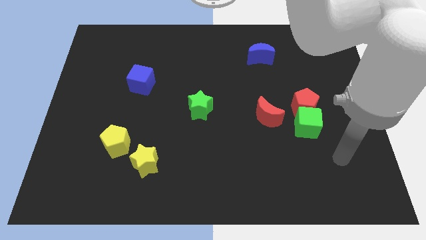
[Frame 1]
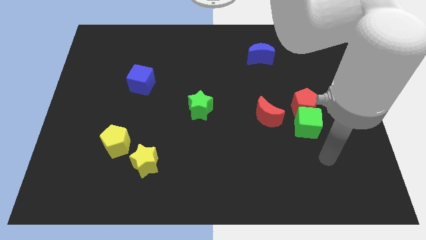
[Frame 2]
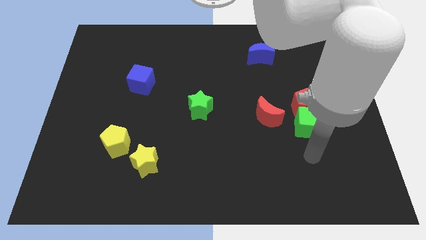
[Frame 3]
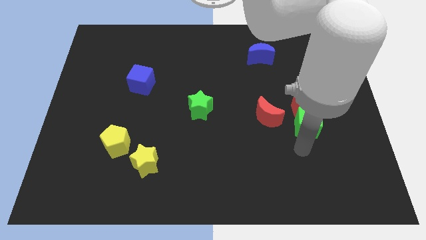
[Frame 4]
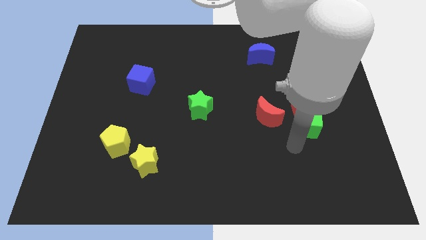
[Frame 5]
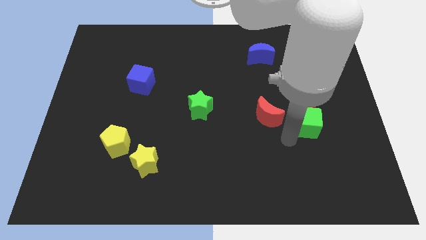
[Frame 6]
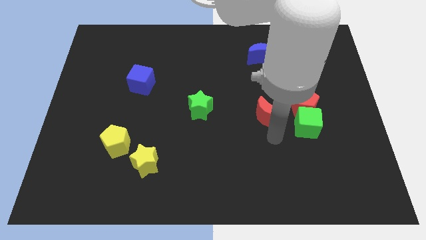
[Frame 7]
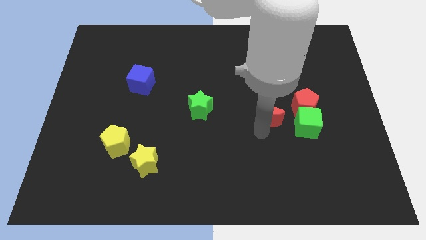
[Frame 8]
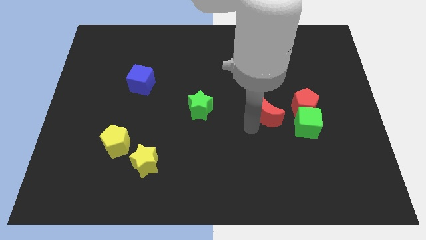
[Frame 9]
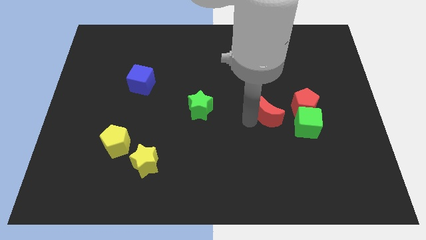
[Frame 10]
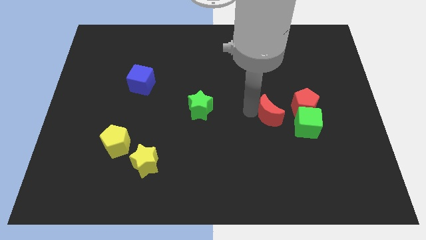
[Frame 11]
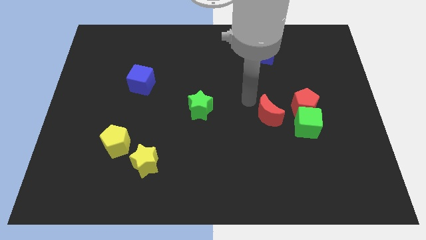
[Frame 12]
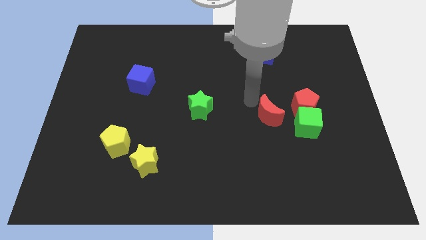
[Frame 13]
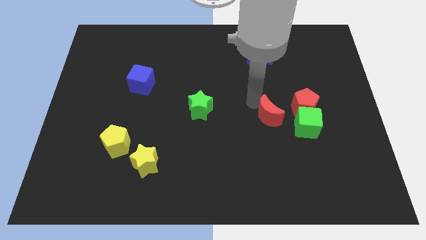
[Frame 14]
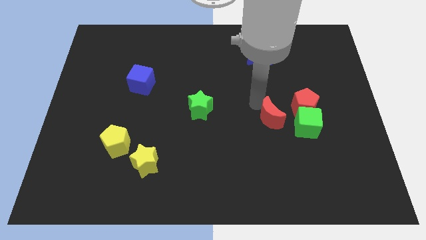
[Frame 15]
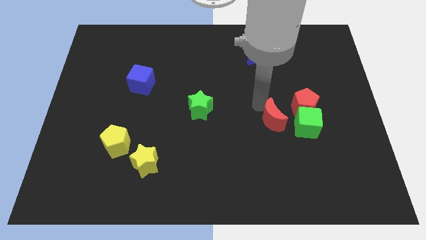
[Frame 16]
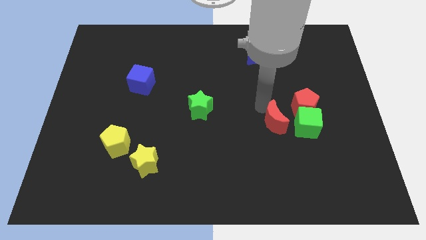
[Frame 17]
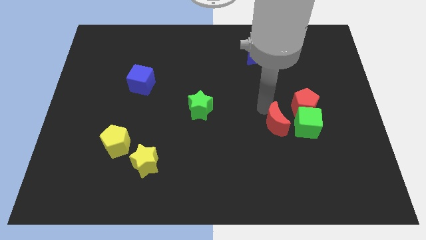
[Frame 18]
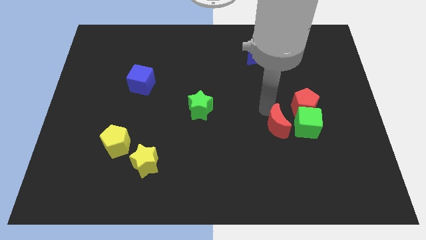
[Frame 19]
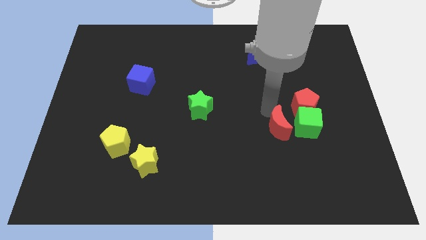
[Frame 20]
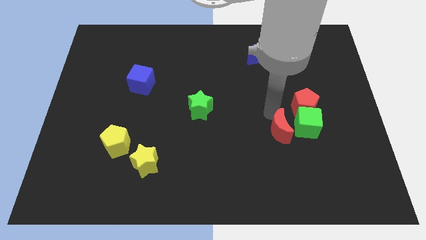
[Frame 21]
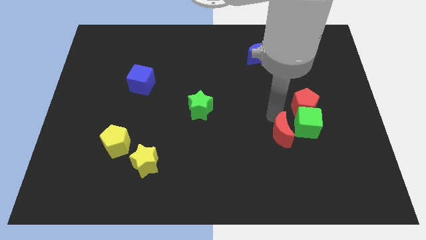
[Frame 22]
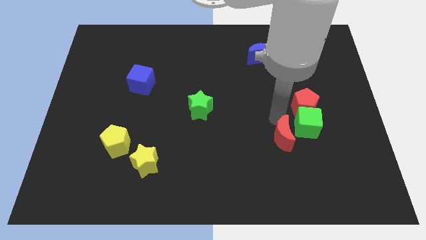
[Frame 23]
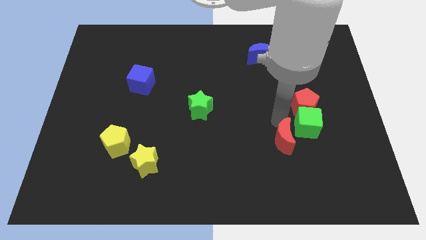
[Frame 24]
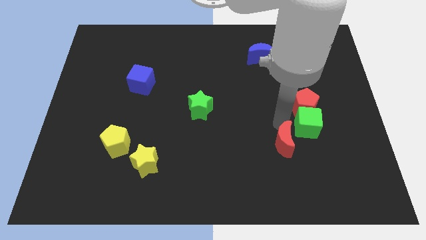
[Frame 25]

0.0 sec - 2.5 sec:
slightly push the red moon downwards and right

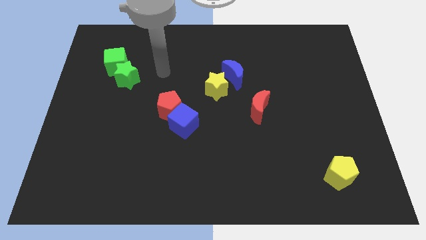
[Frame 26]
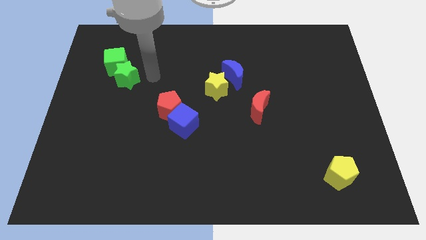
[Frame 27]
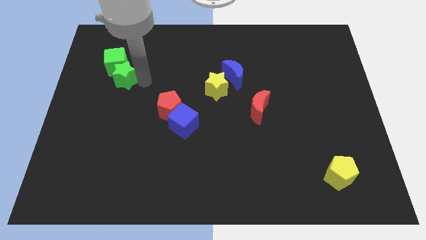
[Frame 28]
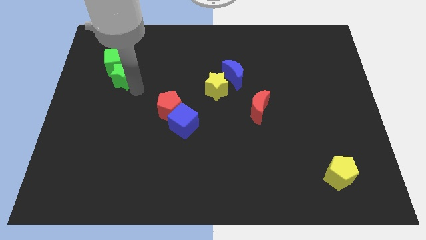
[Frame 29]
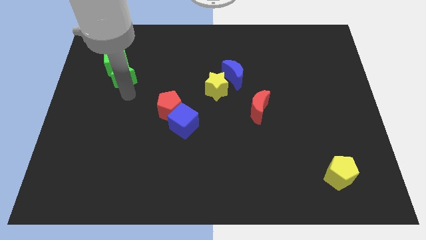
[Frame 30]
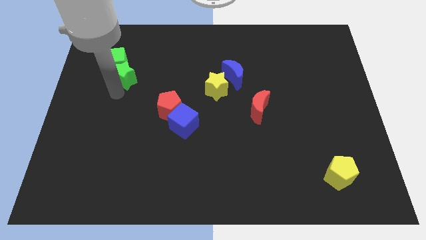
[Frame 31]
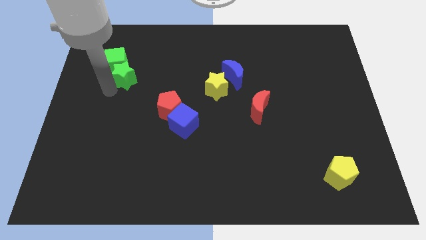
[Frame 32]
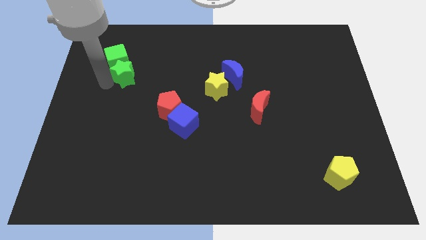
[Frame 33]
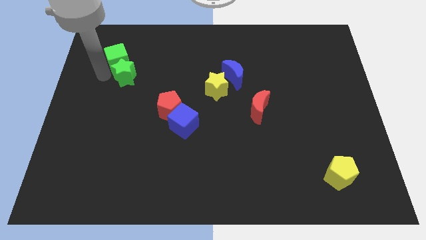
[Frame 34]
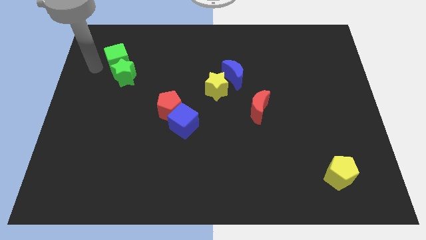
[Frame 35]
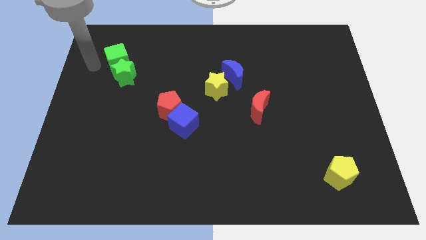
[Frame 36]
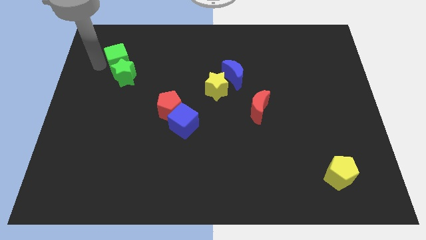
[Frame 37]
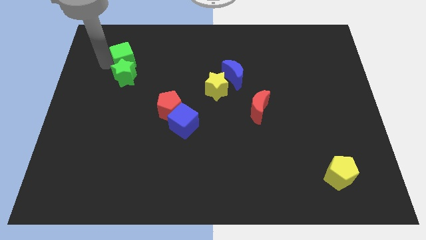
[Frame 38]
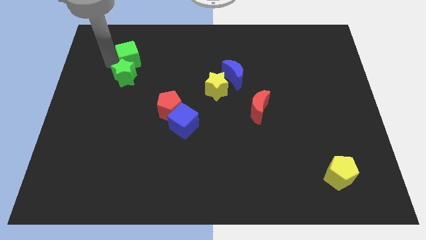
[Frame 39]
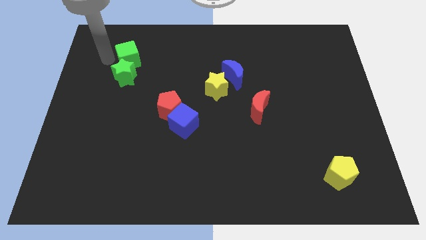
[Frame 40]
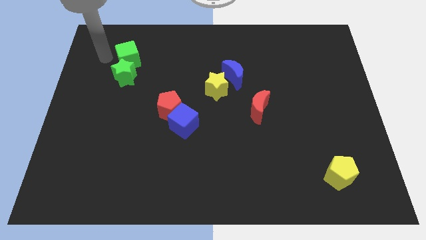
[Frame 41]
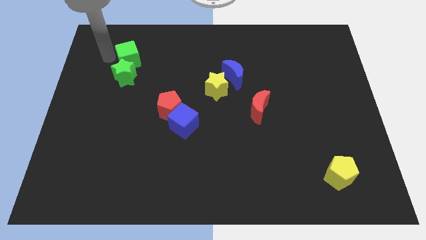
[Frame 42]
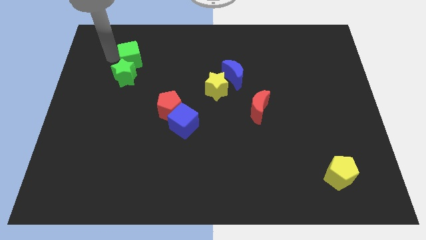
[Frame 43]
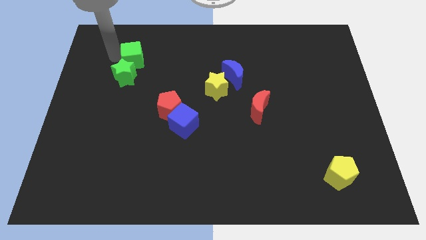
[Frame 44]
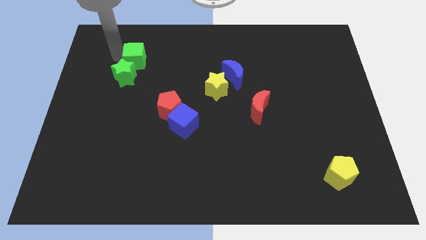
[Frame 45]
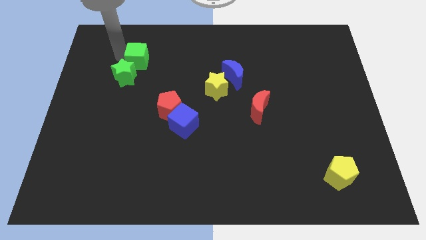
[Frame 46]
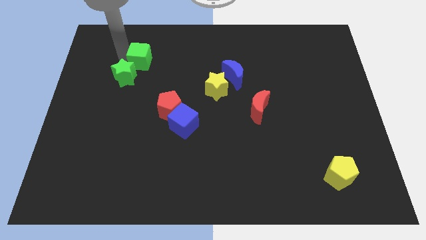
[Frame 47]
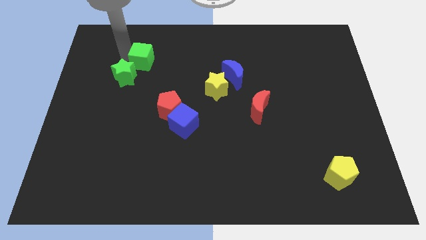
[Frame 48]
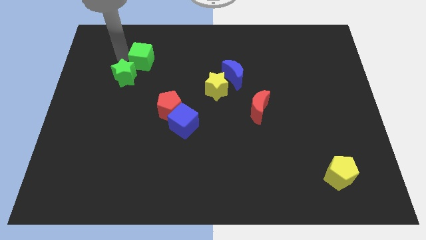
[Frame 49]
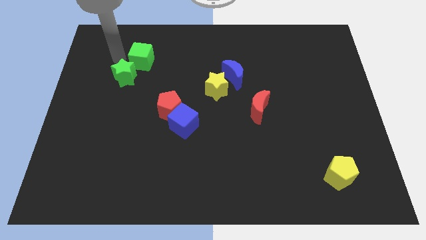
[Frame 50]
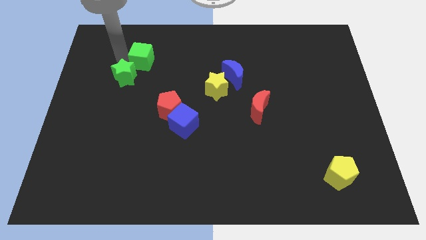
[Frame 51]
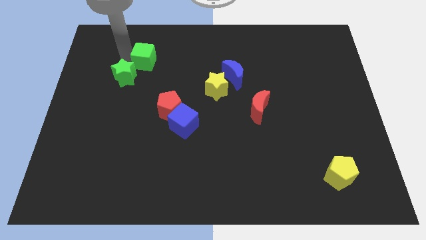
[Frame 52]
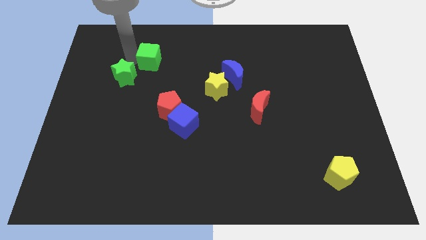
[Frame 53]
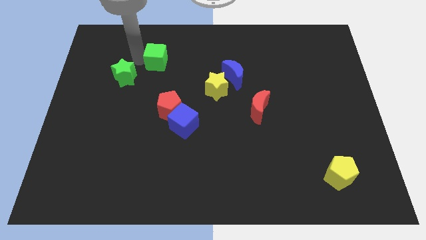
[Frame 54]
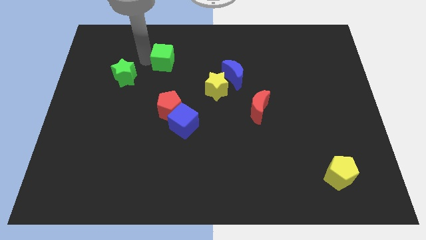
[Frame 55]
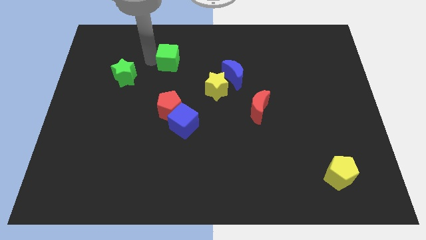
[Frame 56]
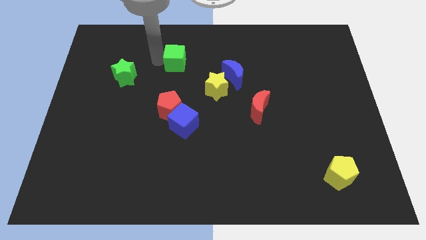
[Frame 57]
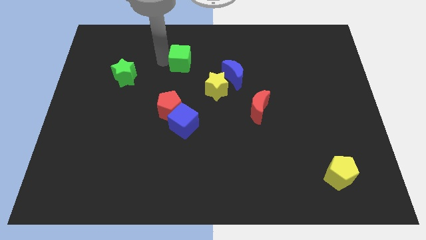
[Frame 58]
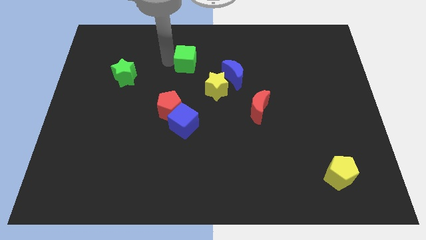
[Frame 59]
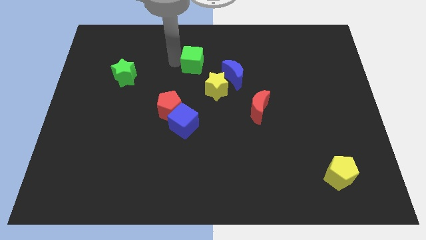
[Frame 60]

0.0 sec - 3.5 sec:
push the green cube to the right

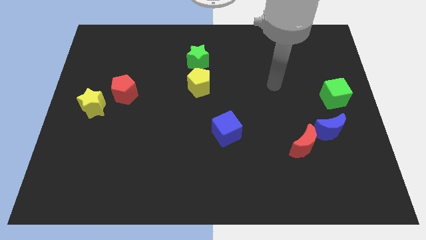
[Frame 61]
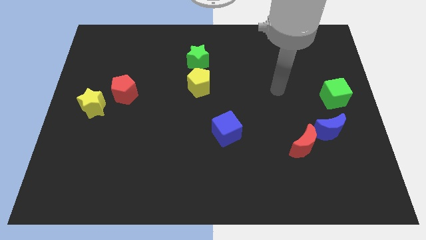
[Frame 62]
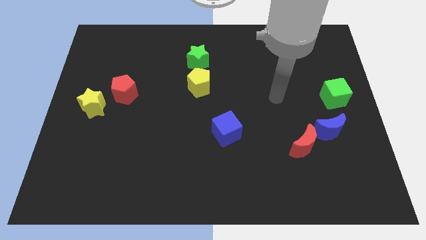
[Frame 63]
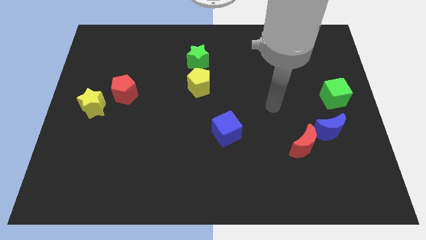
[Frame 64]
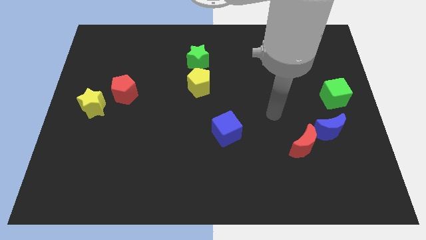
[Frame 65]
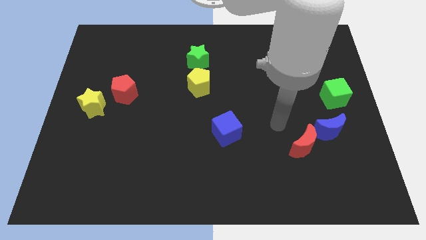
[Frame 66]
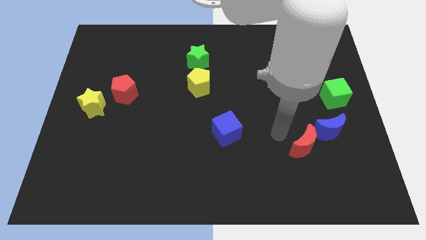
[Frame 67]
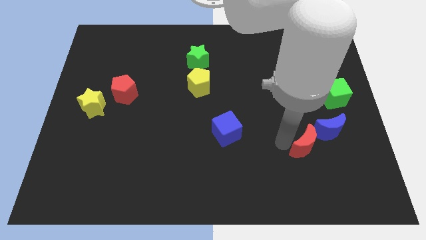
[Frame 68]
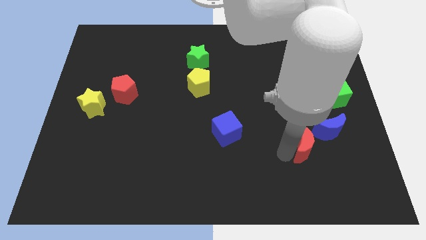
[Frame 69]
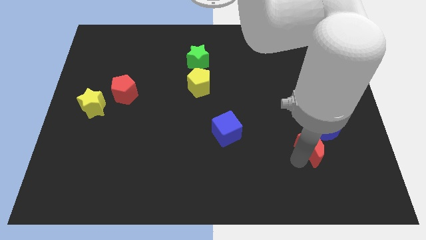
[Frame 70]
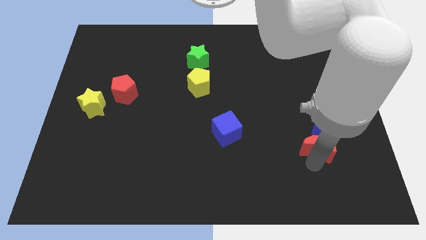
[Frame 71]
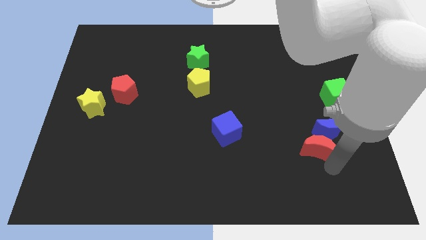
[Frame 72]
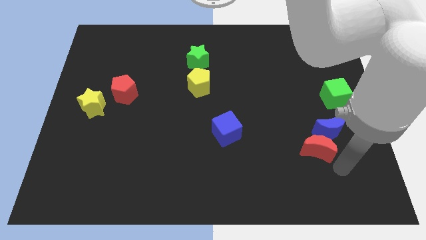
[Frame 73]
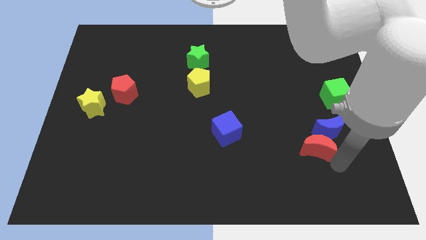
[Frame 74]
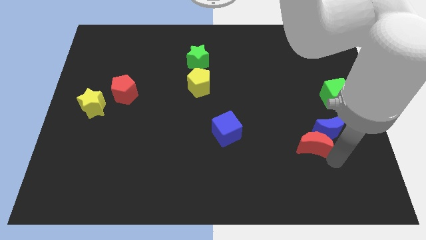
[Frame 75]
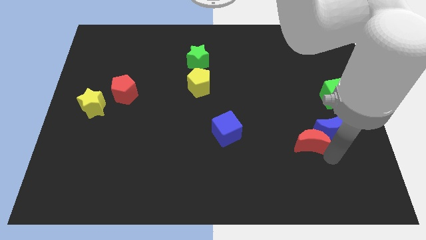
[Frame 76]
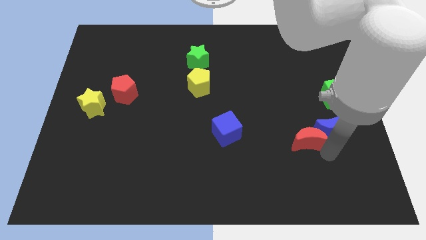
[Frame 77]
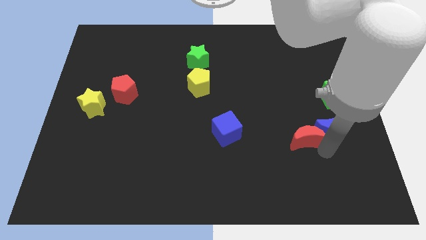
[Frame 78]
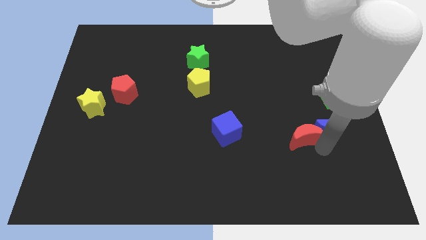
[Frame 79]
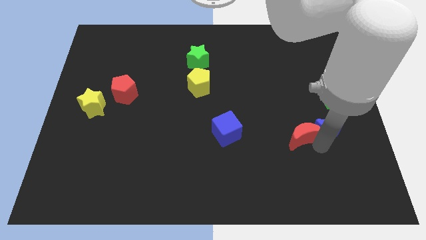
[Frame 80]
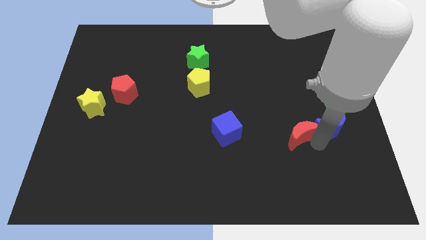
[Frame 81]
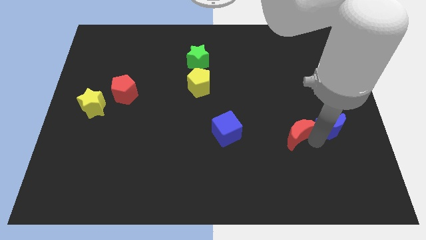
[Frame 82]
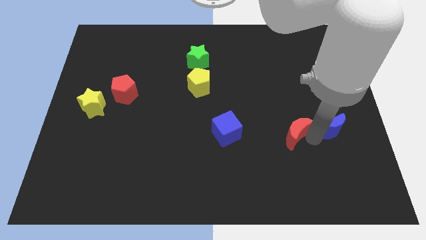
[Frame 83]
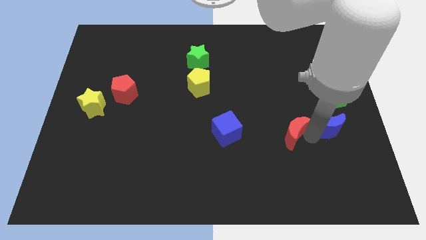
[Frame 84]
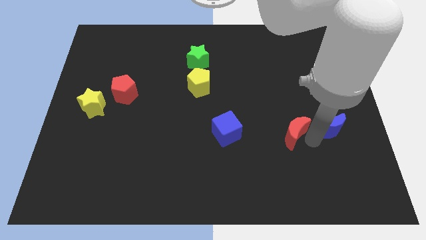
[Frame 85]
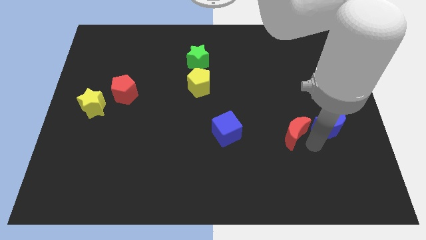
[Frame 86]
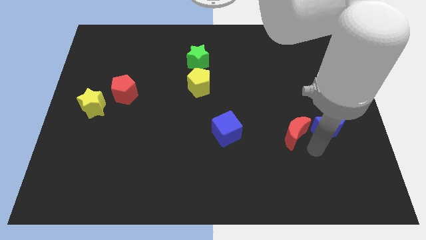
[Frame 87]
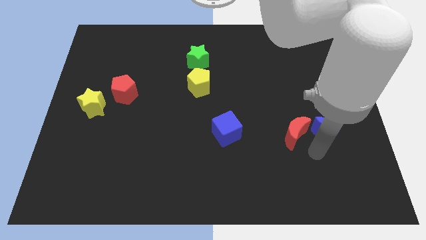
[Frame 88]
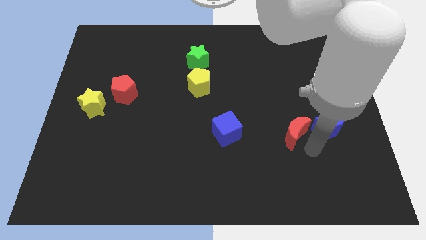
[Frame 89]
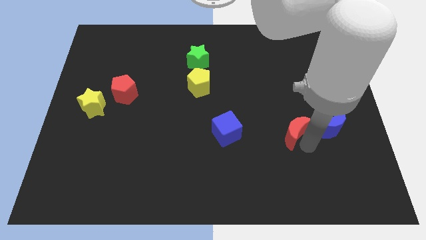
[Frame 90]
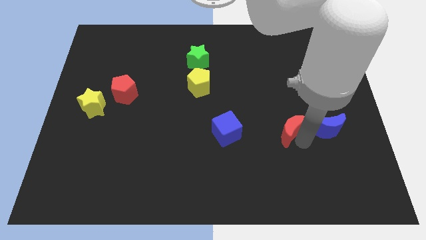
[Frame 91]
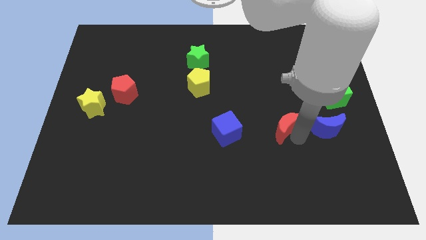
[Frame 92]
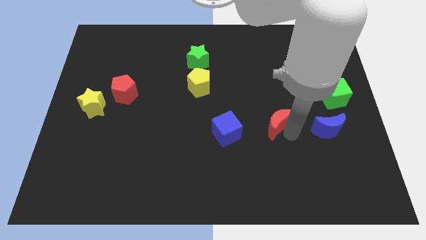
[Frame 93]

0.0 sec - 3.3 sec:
push the red moon up and then left slightly
